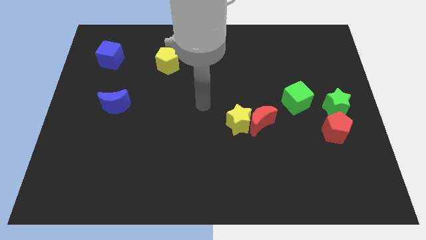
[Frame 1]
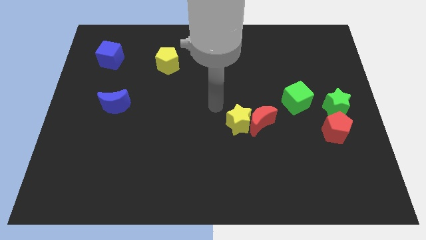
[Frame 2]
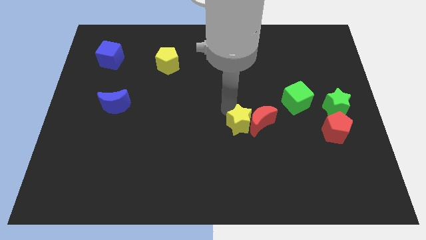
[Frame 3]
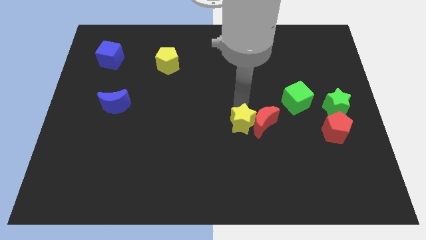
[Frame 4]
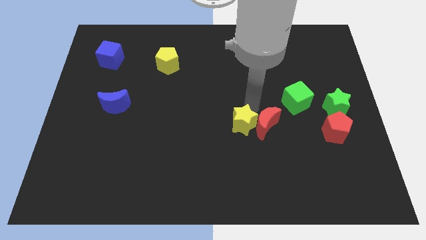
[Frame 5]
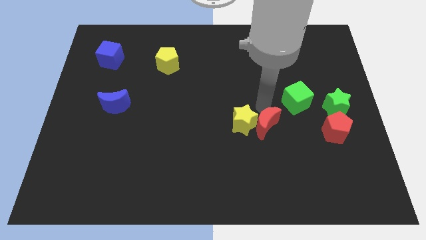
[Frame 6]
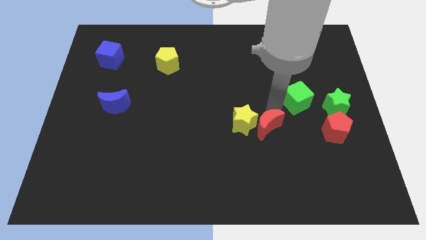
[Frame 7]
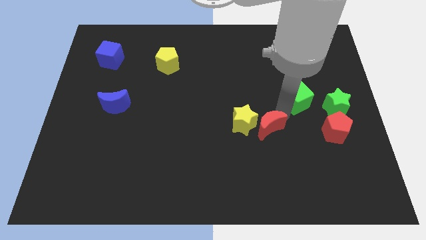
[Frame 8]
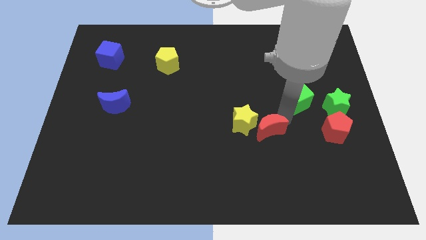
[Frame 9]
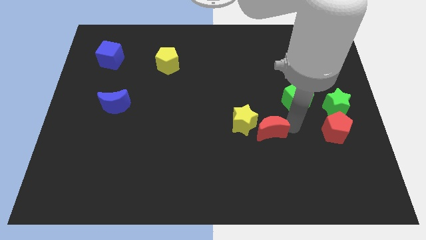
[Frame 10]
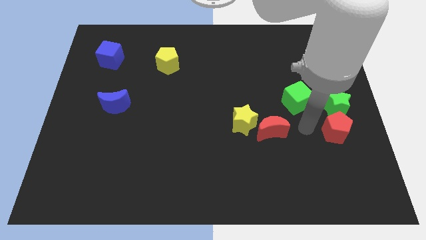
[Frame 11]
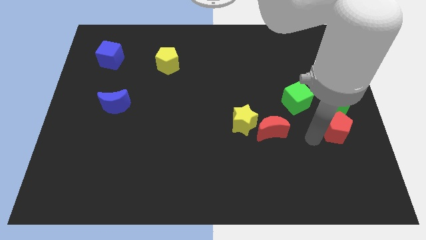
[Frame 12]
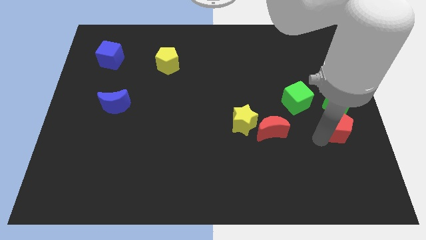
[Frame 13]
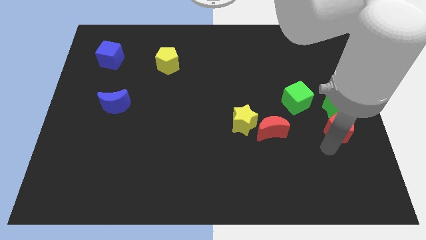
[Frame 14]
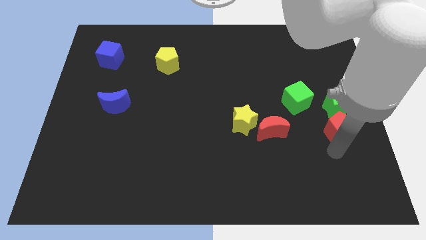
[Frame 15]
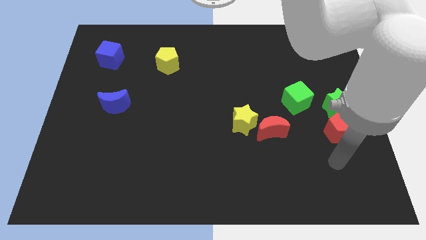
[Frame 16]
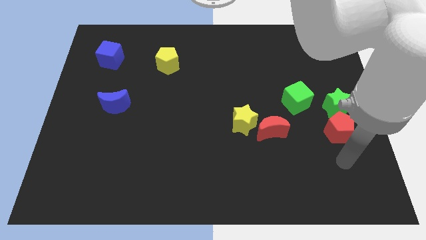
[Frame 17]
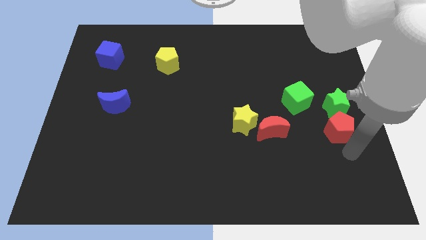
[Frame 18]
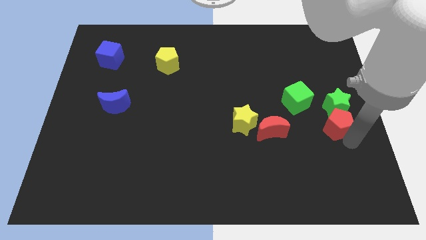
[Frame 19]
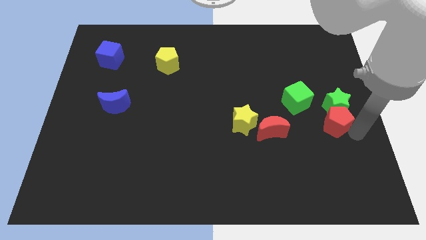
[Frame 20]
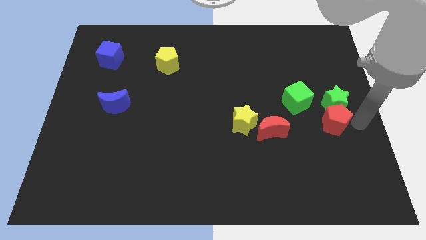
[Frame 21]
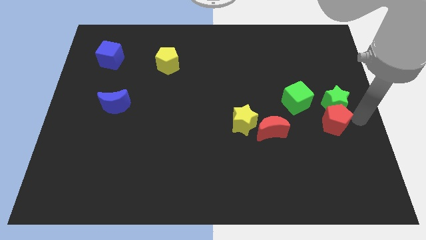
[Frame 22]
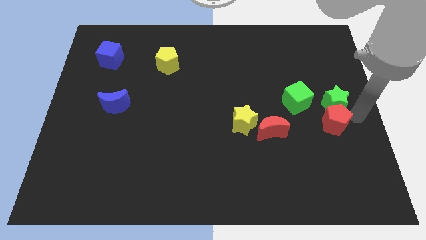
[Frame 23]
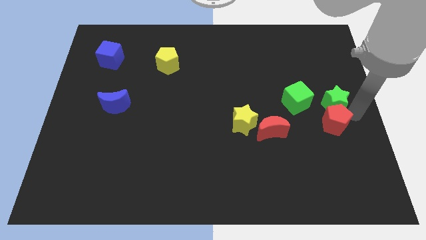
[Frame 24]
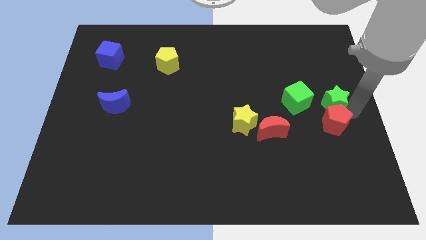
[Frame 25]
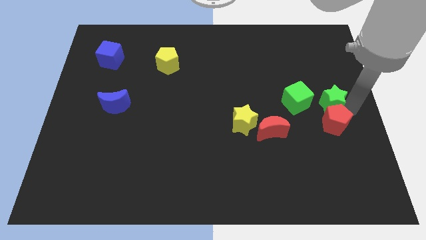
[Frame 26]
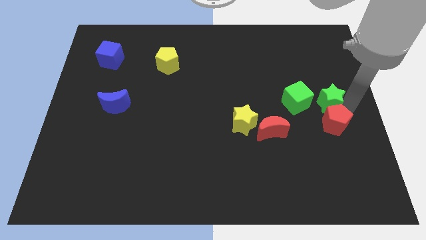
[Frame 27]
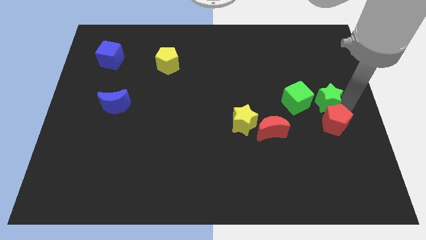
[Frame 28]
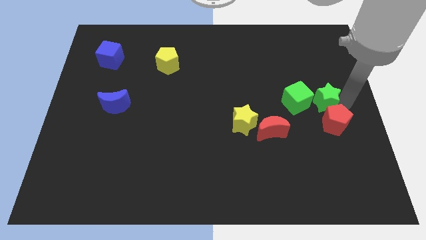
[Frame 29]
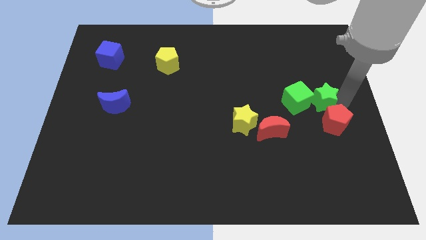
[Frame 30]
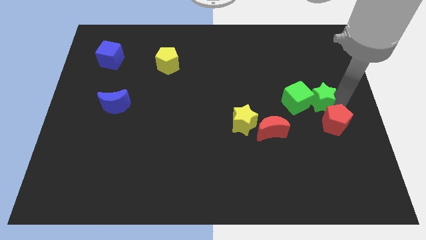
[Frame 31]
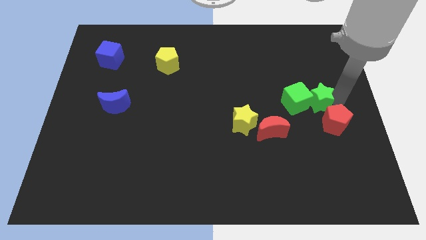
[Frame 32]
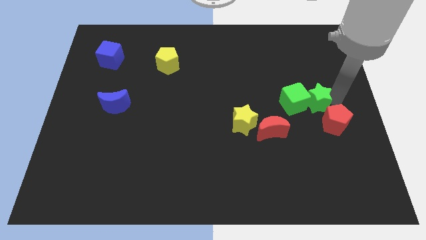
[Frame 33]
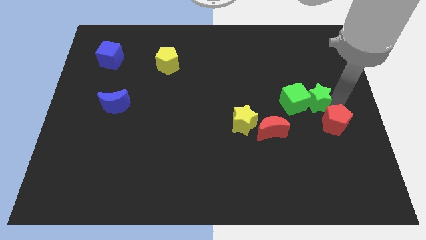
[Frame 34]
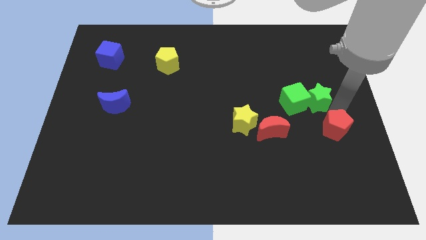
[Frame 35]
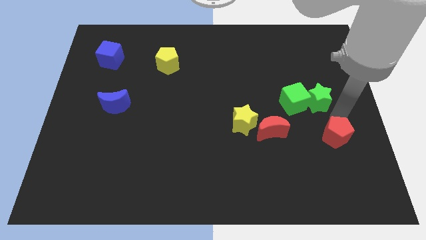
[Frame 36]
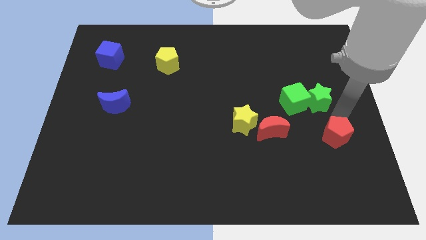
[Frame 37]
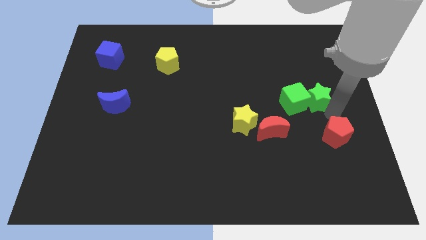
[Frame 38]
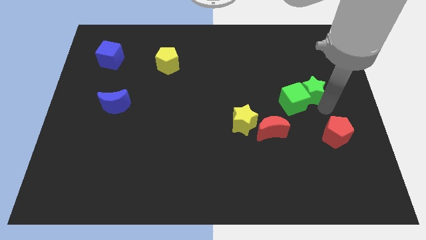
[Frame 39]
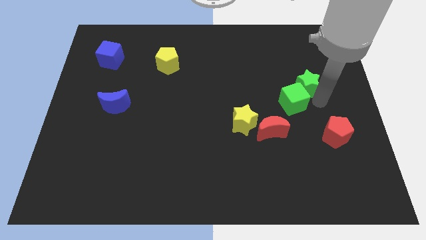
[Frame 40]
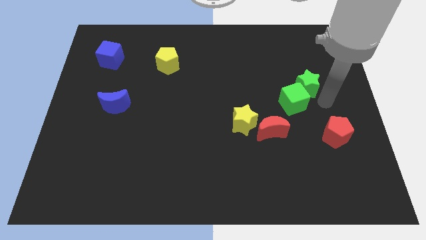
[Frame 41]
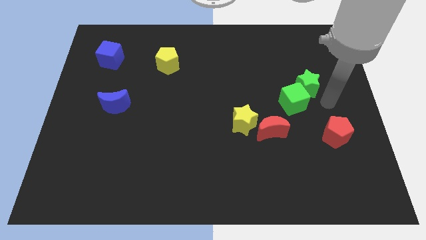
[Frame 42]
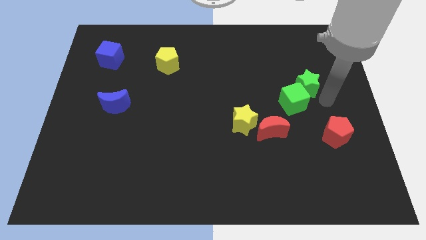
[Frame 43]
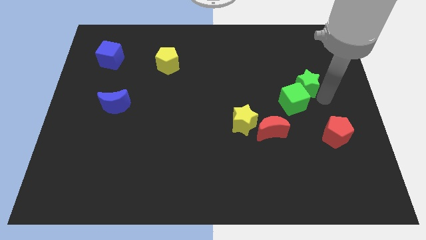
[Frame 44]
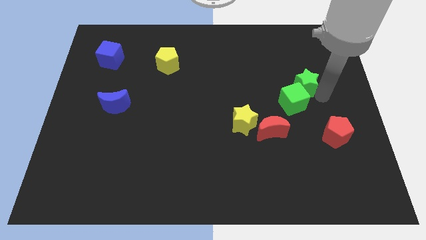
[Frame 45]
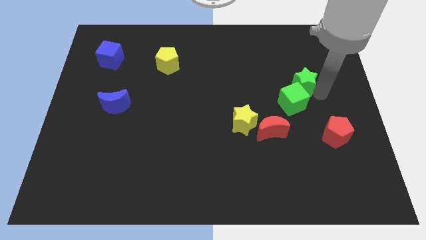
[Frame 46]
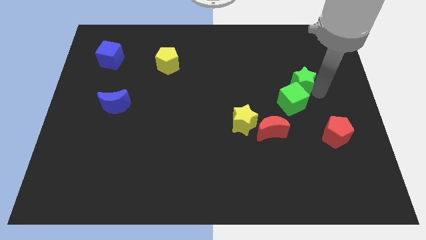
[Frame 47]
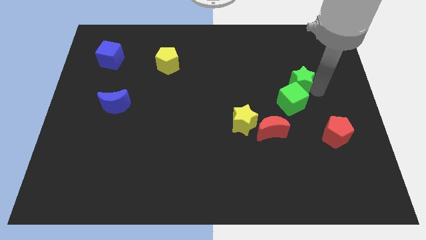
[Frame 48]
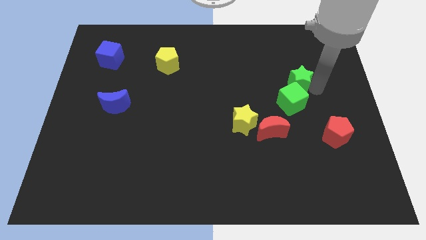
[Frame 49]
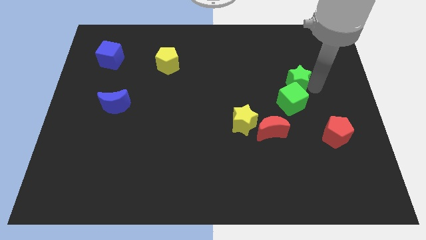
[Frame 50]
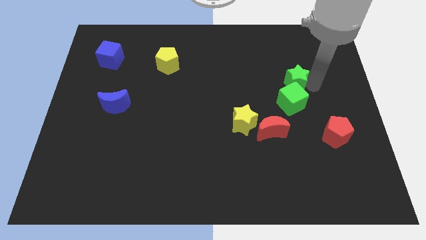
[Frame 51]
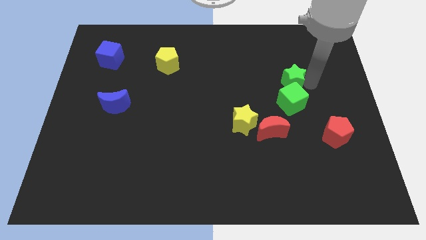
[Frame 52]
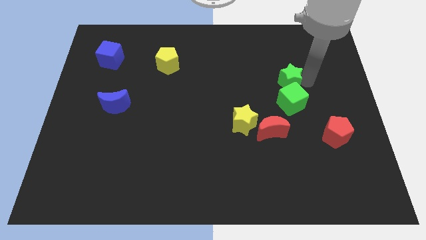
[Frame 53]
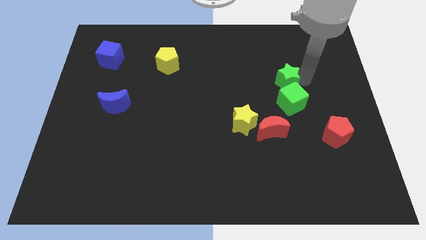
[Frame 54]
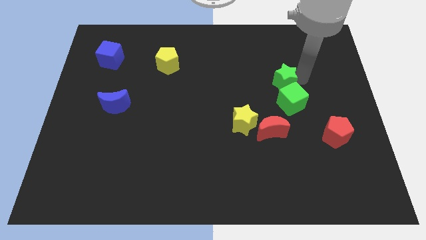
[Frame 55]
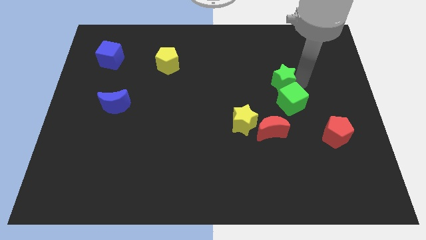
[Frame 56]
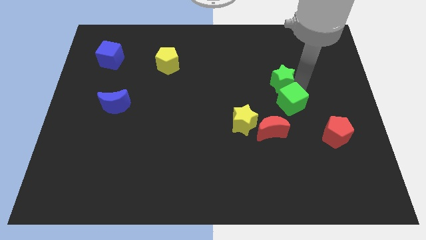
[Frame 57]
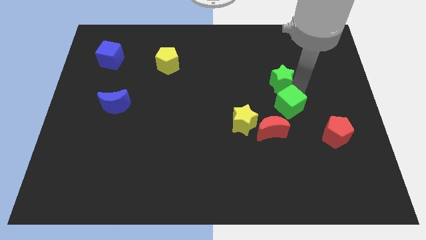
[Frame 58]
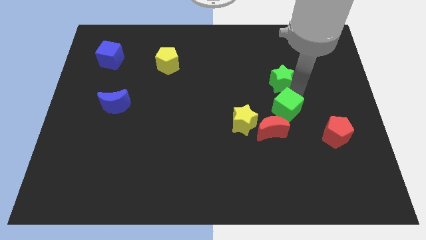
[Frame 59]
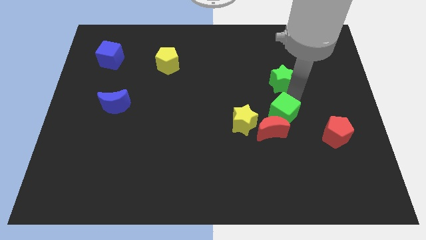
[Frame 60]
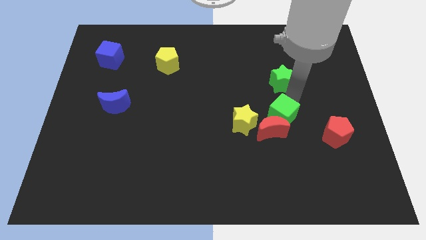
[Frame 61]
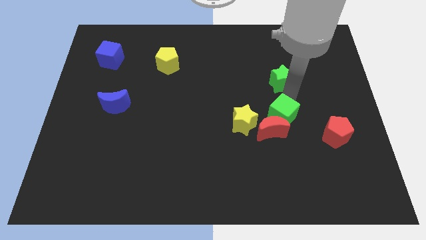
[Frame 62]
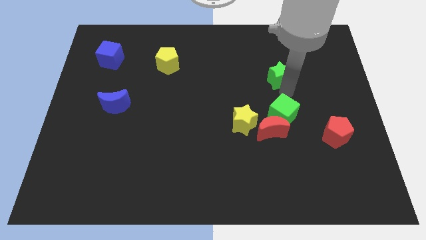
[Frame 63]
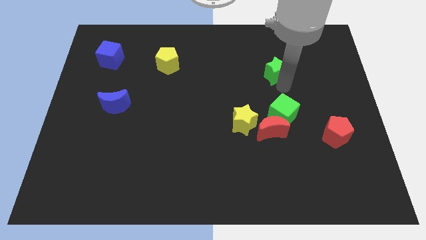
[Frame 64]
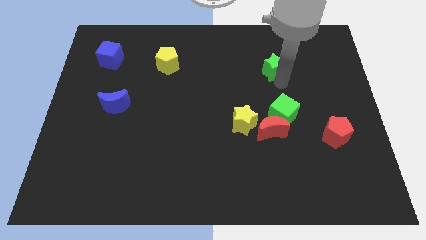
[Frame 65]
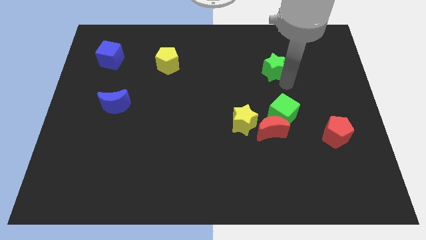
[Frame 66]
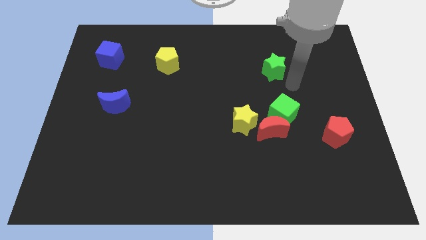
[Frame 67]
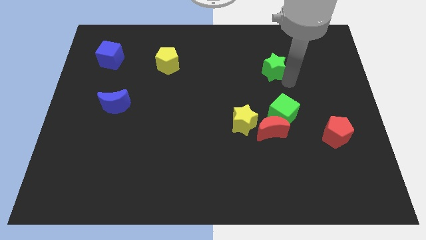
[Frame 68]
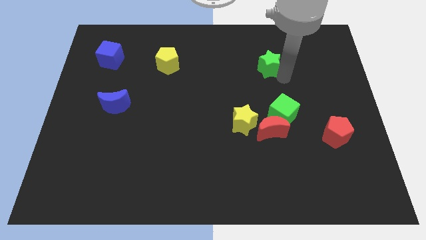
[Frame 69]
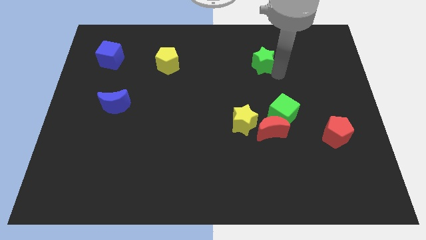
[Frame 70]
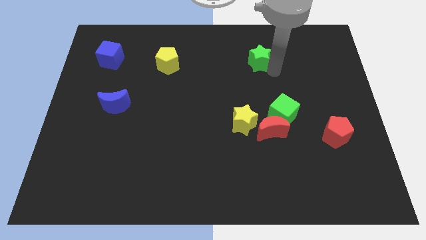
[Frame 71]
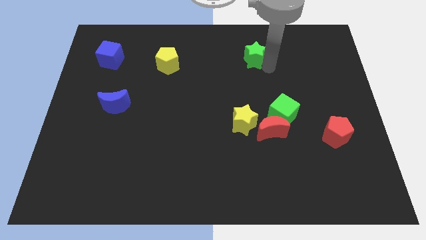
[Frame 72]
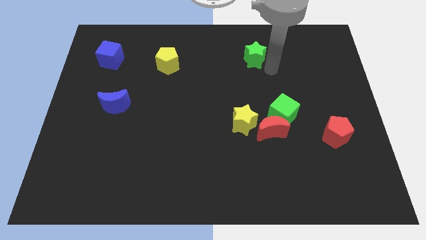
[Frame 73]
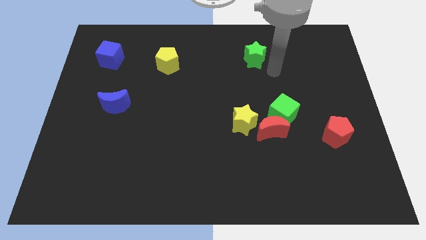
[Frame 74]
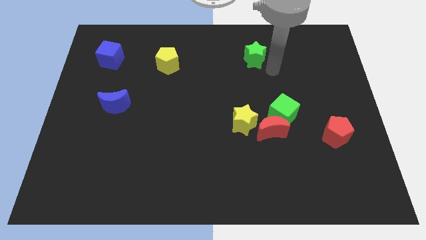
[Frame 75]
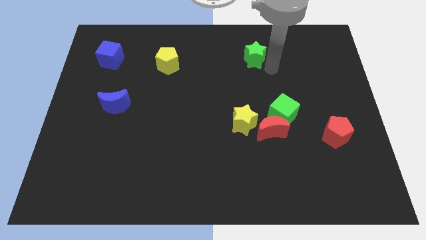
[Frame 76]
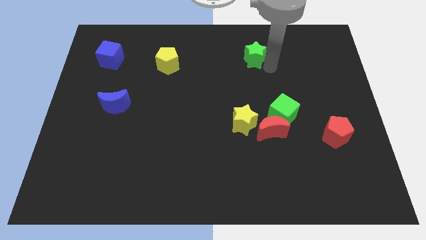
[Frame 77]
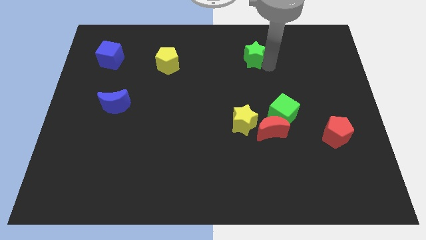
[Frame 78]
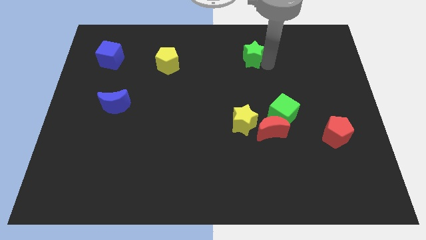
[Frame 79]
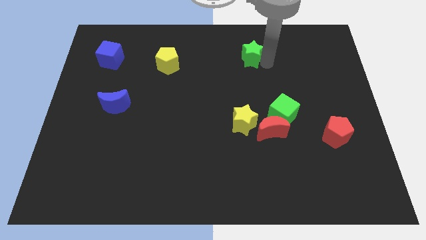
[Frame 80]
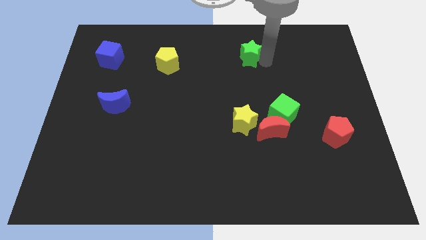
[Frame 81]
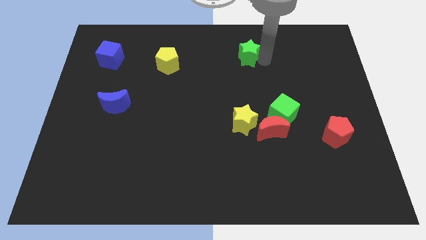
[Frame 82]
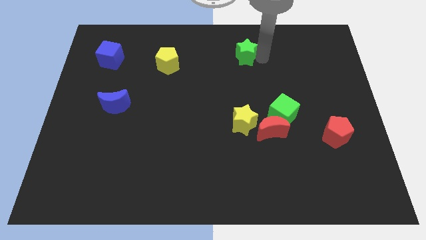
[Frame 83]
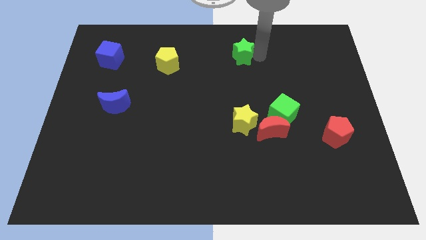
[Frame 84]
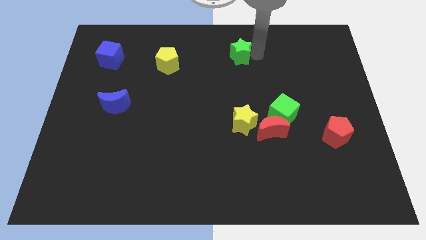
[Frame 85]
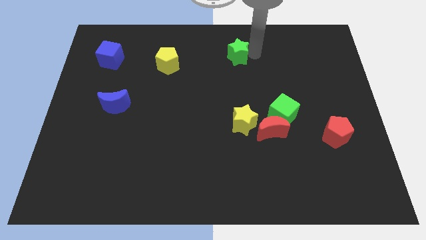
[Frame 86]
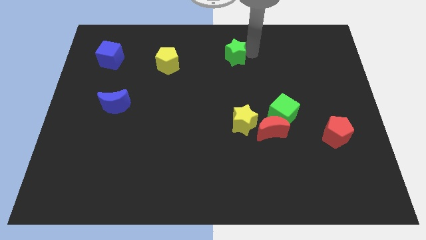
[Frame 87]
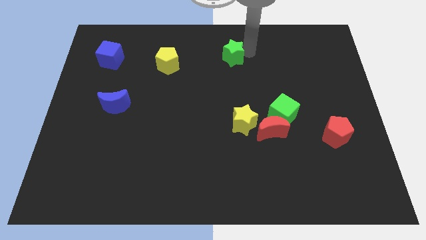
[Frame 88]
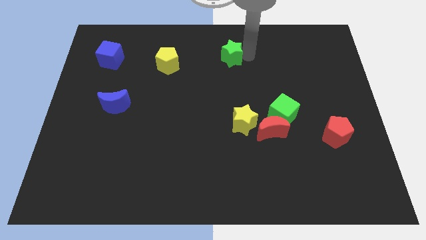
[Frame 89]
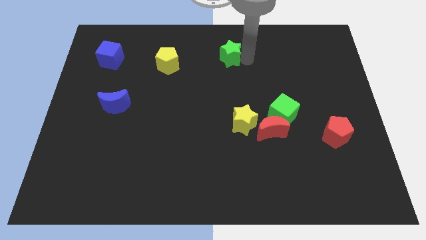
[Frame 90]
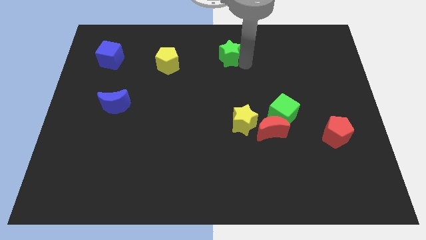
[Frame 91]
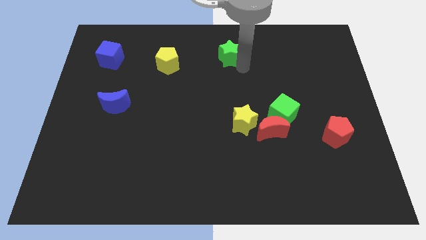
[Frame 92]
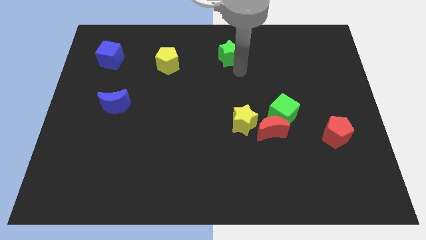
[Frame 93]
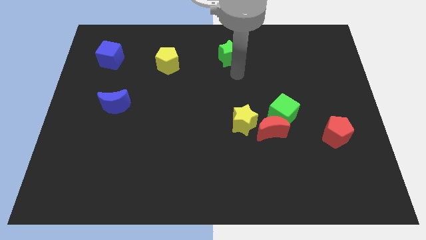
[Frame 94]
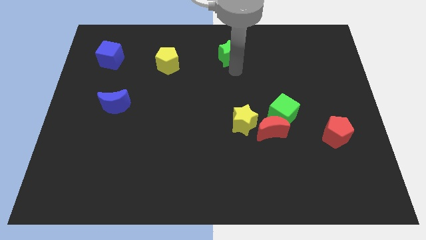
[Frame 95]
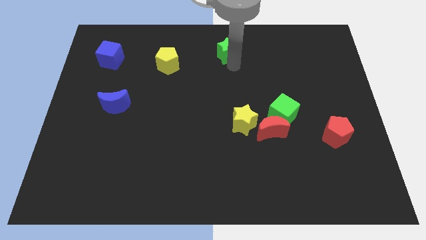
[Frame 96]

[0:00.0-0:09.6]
move the green star to the top side
